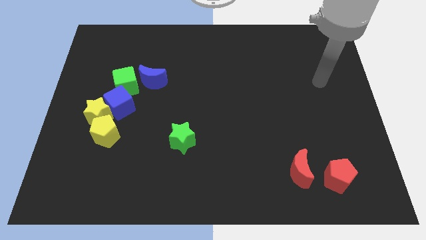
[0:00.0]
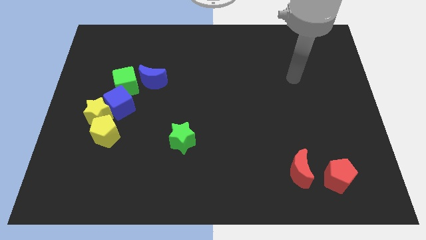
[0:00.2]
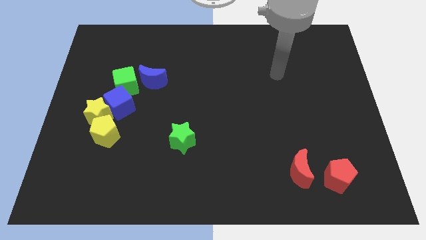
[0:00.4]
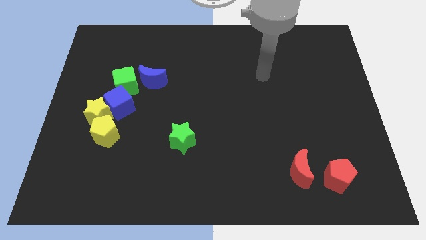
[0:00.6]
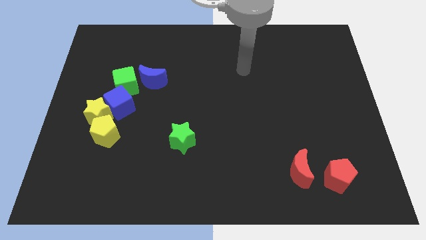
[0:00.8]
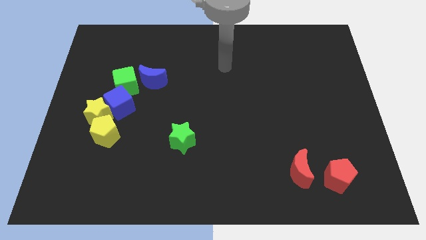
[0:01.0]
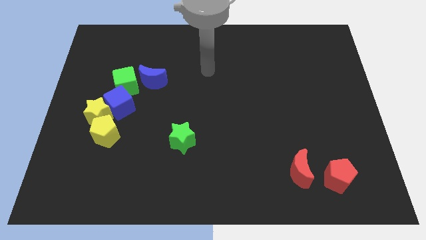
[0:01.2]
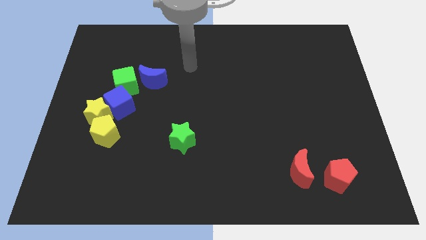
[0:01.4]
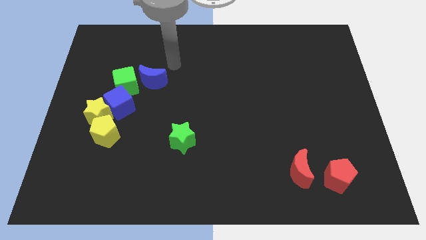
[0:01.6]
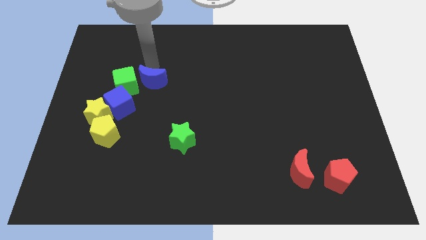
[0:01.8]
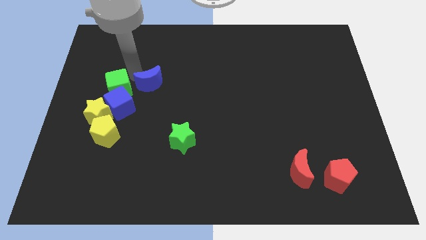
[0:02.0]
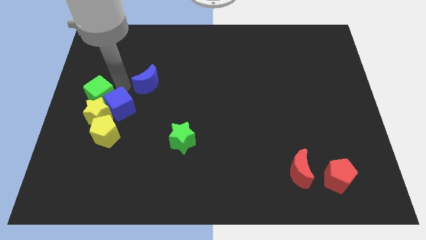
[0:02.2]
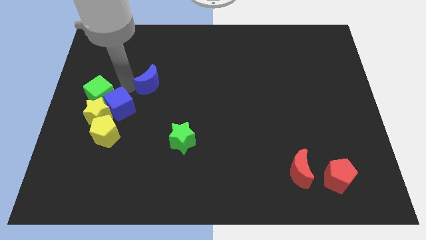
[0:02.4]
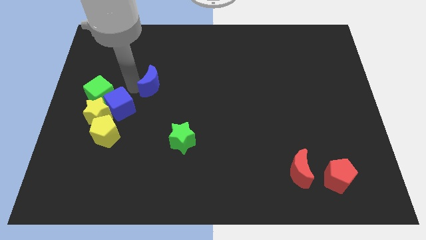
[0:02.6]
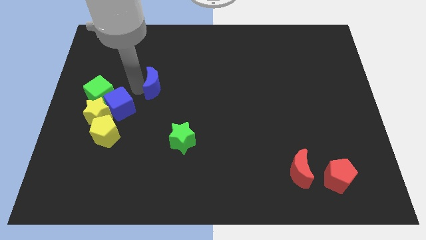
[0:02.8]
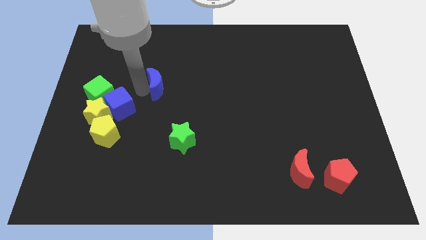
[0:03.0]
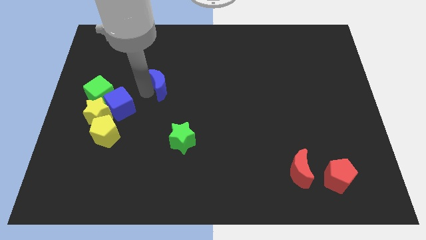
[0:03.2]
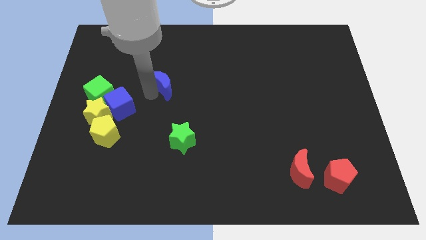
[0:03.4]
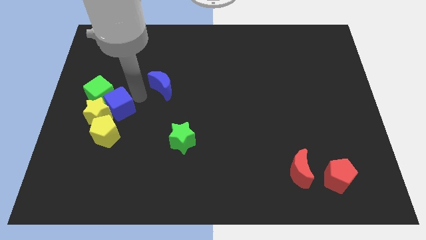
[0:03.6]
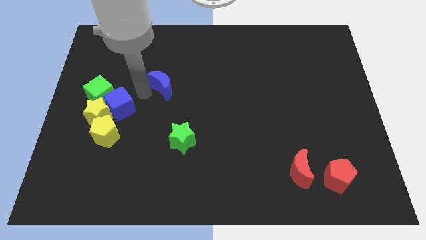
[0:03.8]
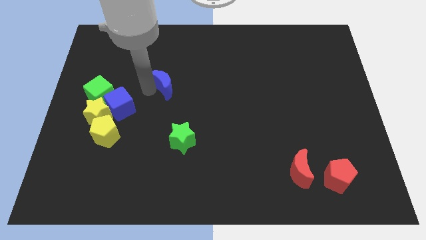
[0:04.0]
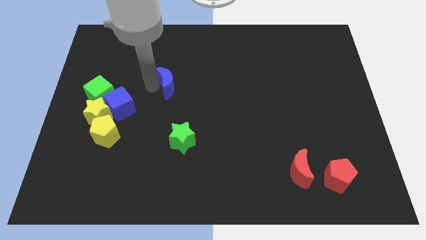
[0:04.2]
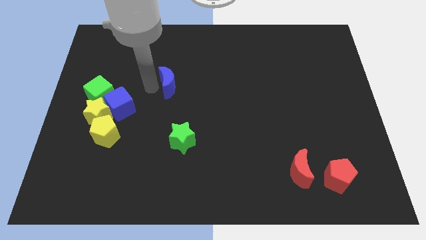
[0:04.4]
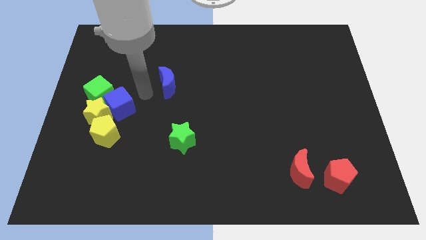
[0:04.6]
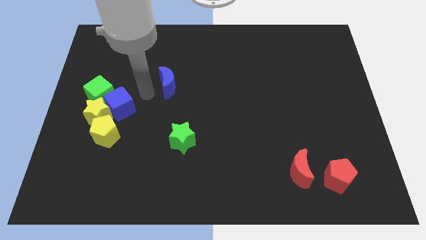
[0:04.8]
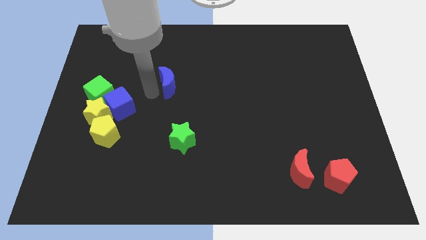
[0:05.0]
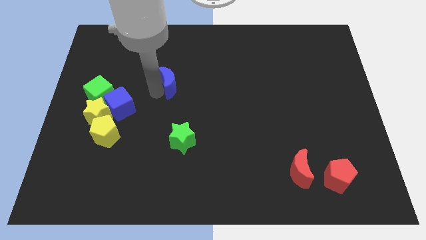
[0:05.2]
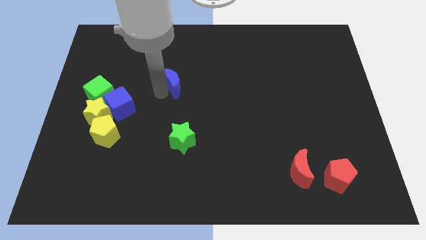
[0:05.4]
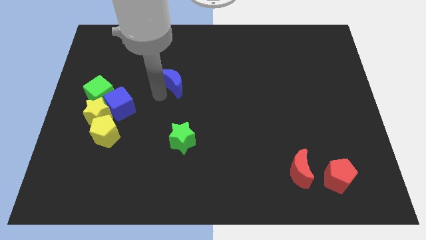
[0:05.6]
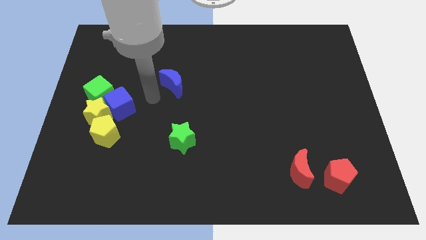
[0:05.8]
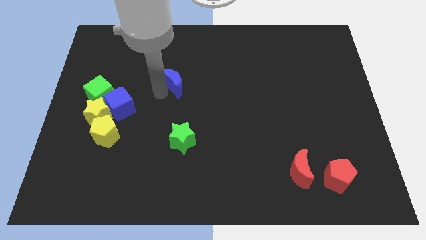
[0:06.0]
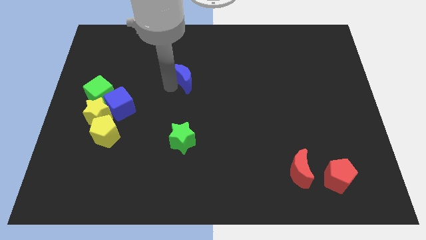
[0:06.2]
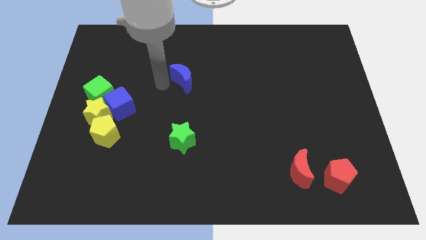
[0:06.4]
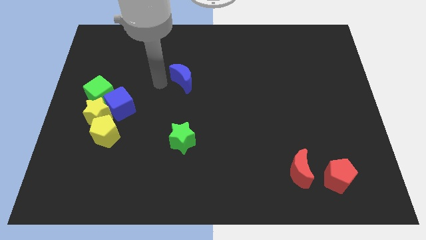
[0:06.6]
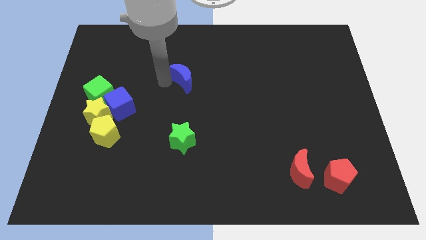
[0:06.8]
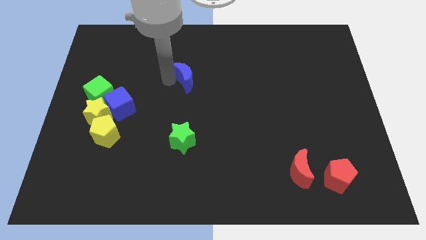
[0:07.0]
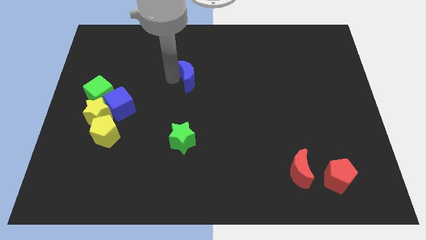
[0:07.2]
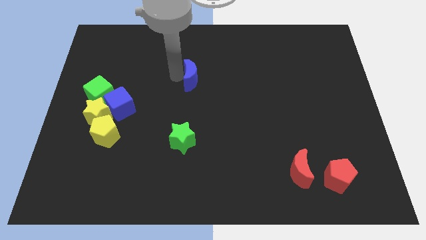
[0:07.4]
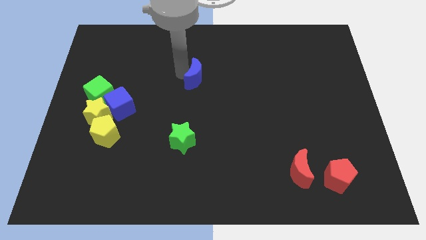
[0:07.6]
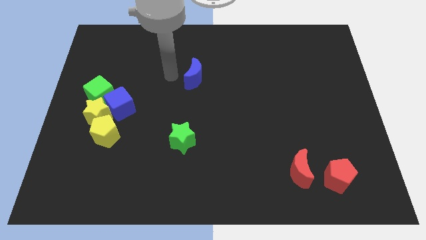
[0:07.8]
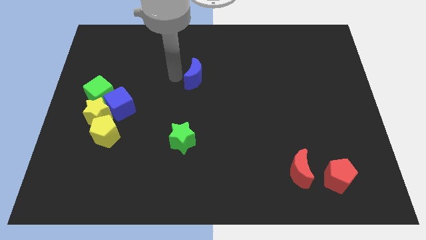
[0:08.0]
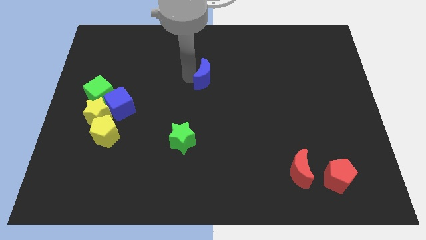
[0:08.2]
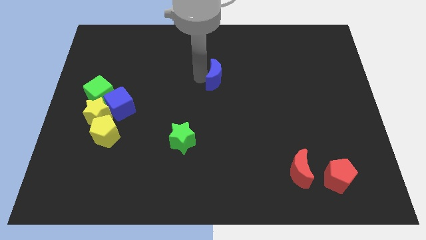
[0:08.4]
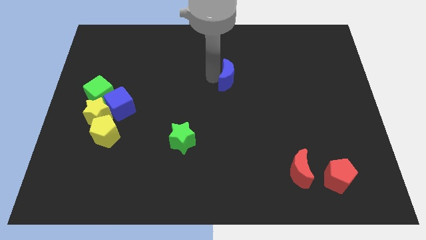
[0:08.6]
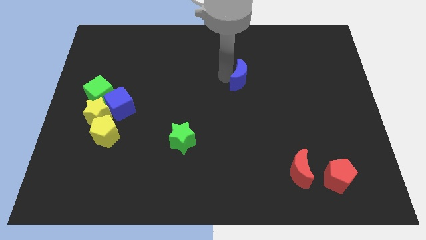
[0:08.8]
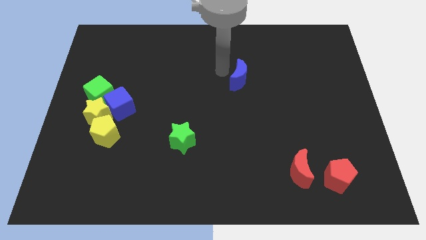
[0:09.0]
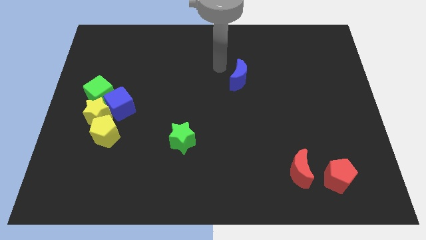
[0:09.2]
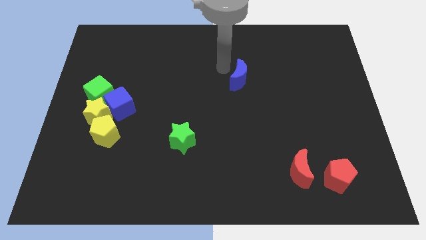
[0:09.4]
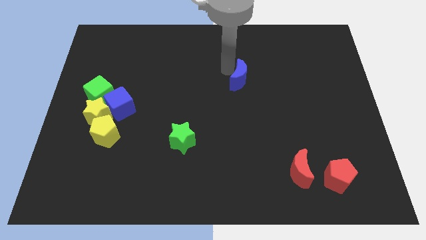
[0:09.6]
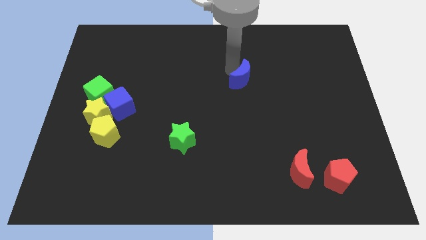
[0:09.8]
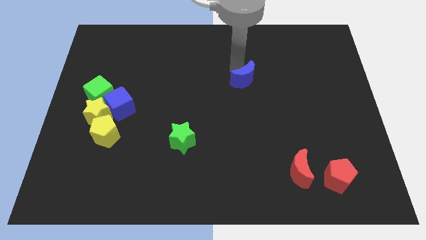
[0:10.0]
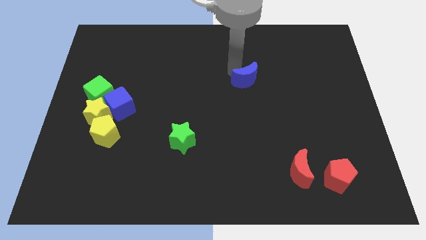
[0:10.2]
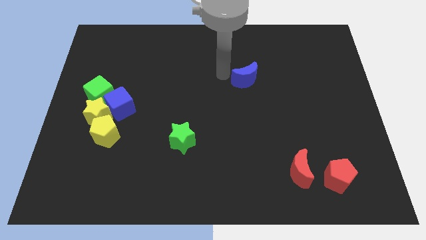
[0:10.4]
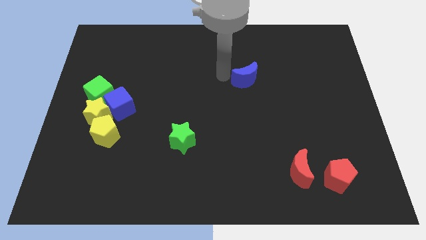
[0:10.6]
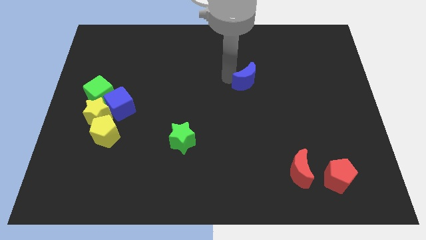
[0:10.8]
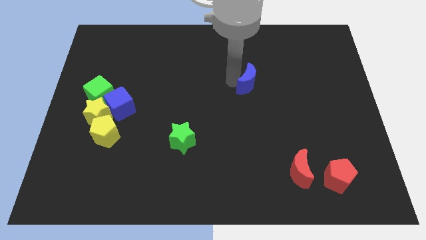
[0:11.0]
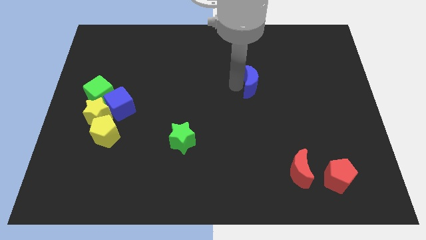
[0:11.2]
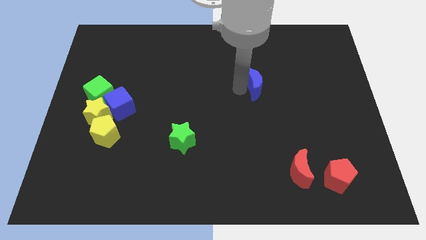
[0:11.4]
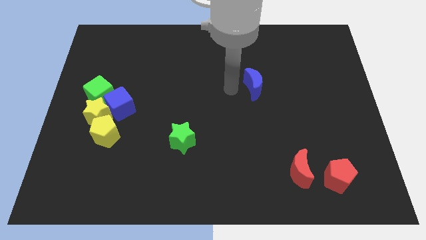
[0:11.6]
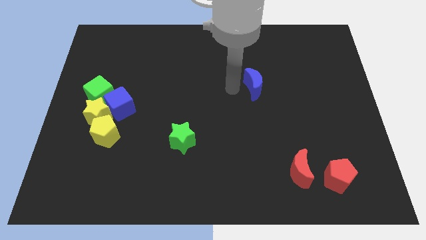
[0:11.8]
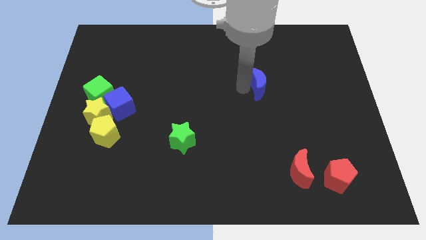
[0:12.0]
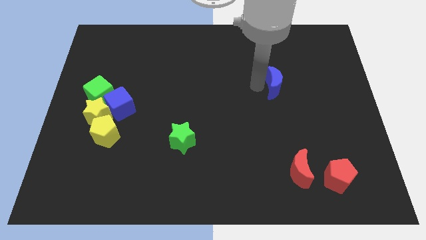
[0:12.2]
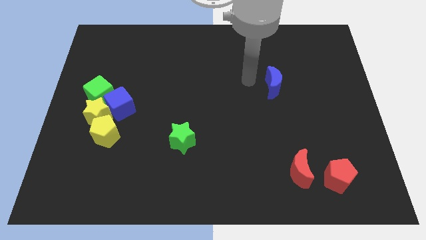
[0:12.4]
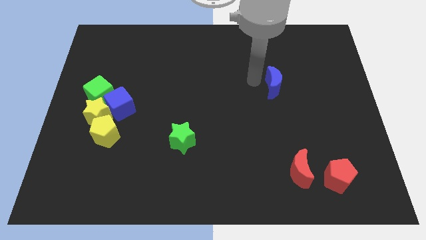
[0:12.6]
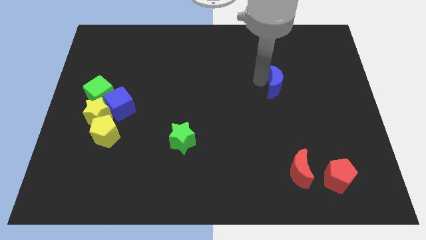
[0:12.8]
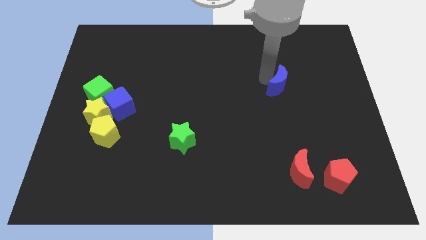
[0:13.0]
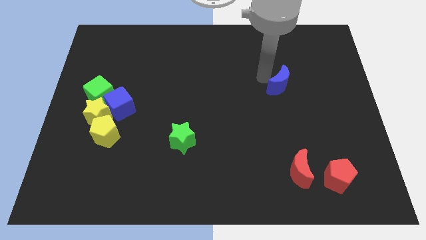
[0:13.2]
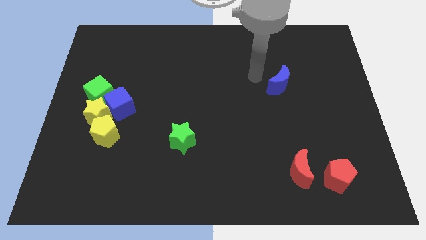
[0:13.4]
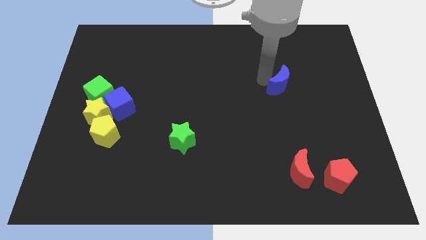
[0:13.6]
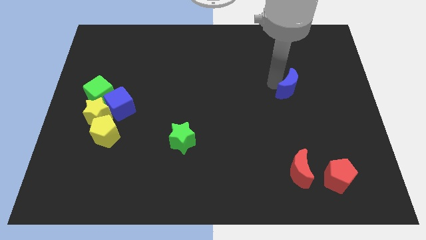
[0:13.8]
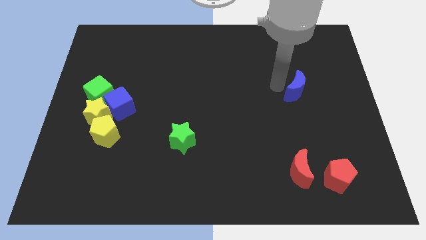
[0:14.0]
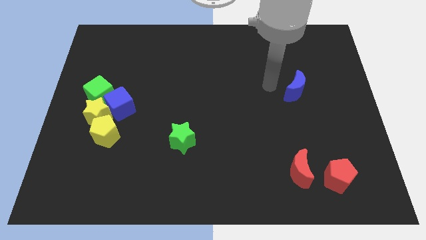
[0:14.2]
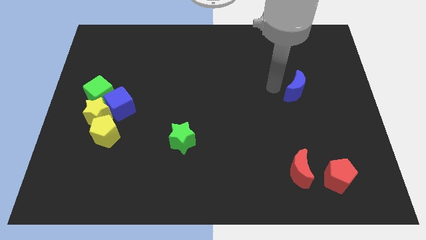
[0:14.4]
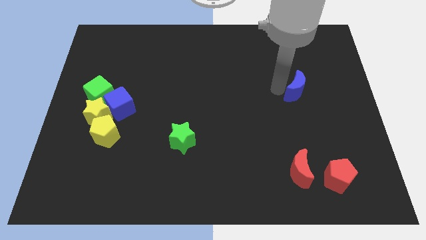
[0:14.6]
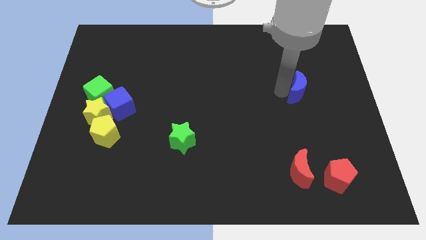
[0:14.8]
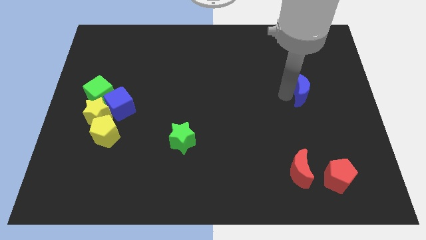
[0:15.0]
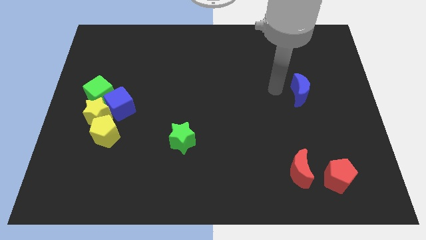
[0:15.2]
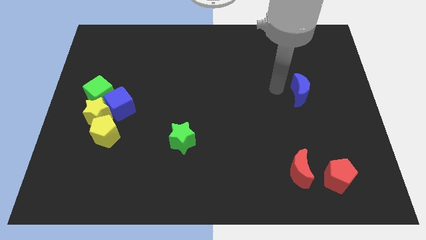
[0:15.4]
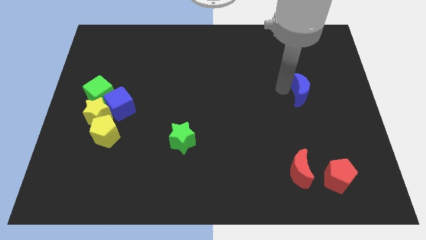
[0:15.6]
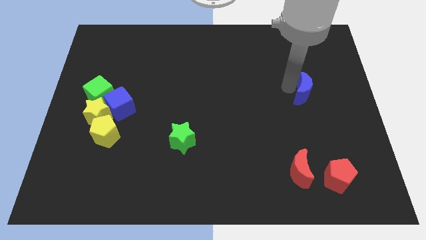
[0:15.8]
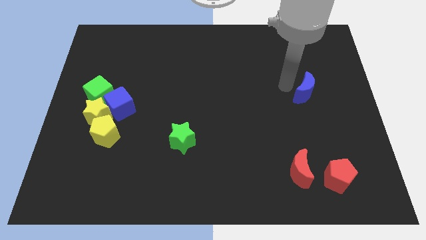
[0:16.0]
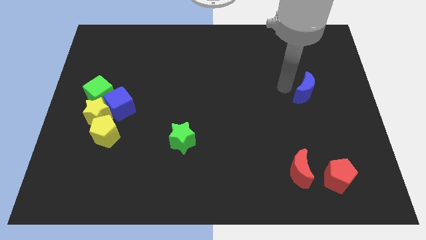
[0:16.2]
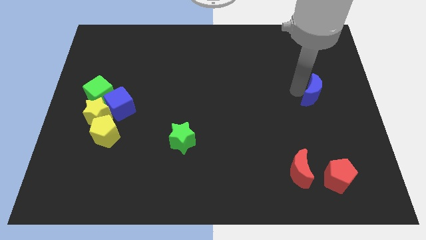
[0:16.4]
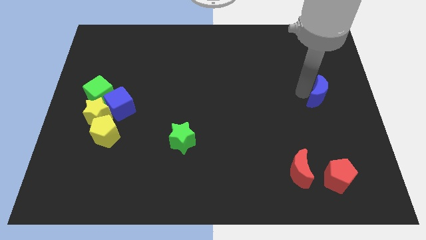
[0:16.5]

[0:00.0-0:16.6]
put the blue moon to the right side of the board
